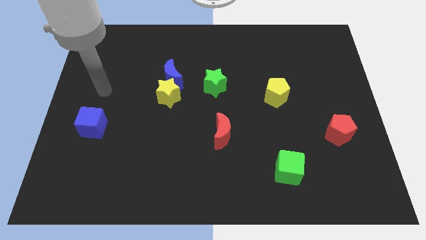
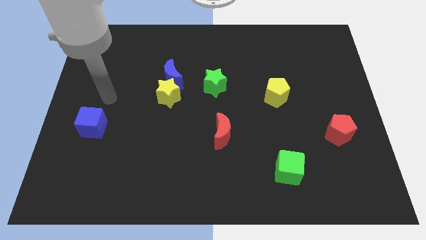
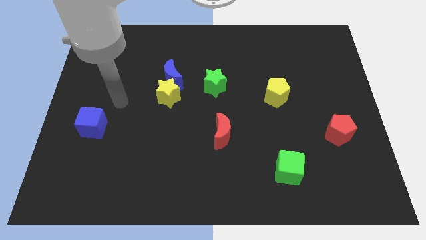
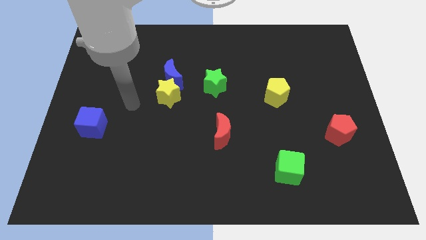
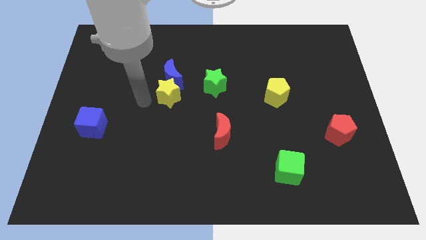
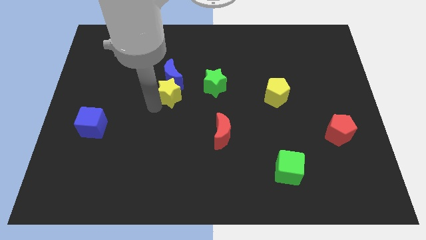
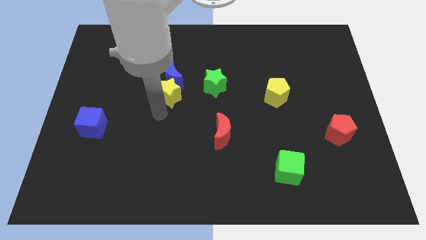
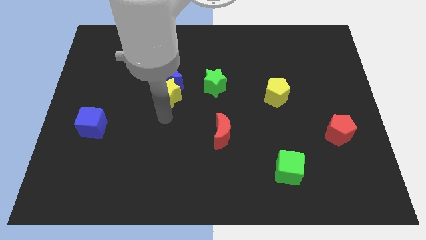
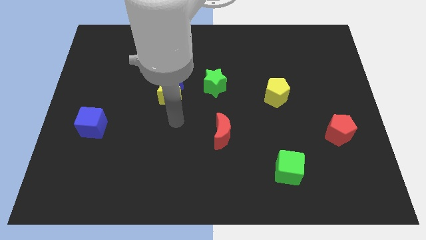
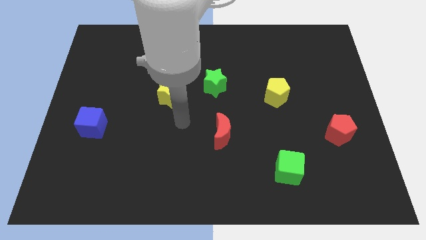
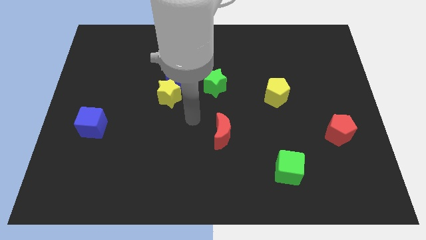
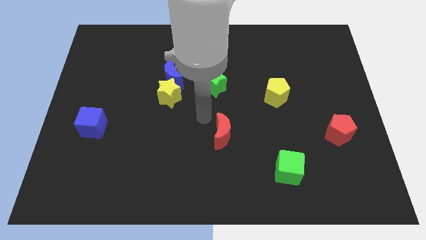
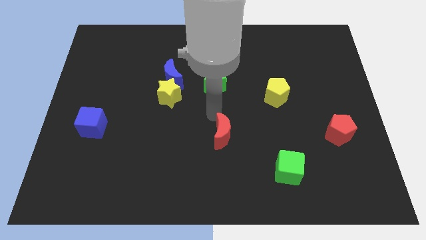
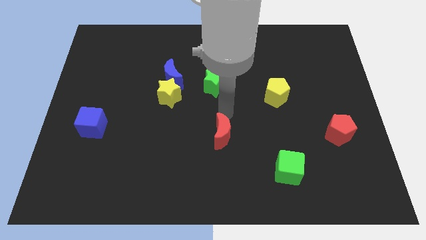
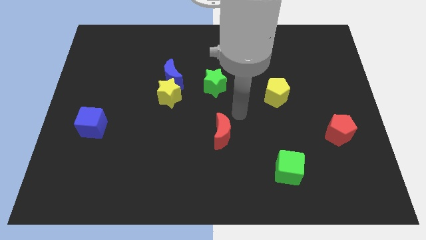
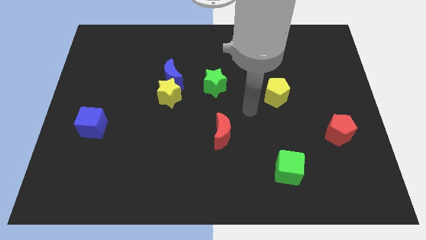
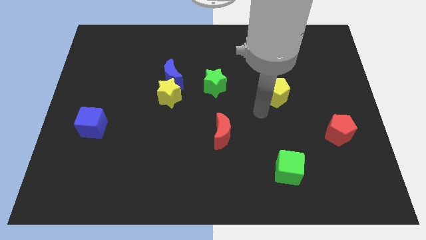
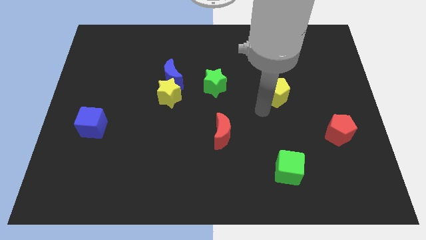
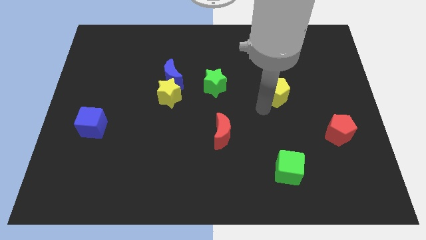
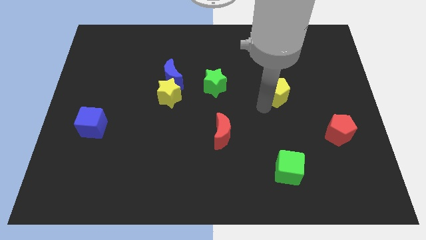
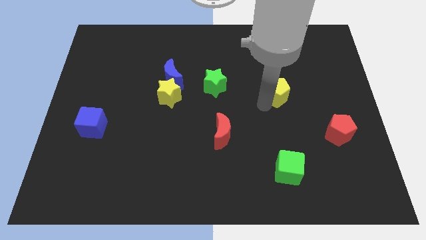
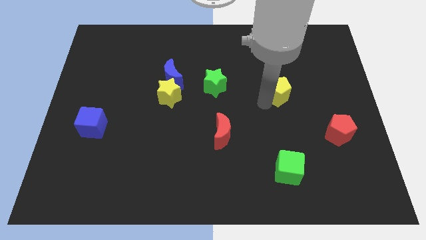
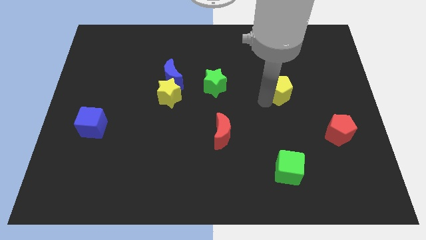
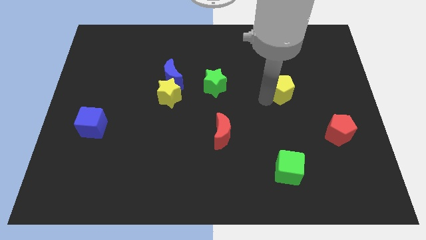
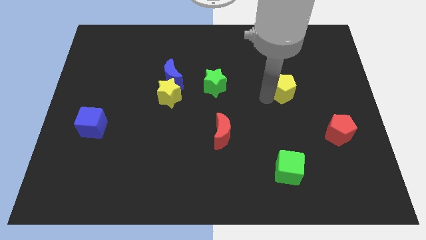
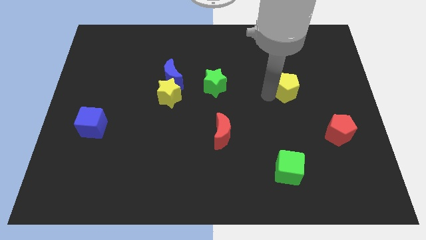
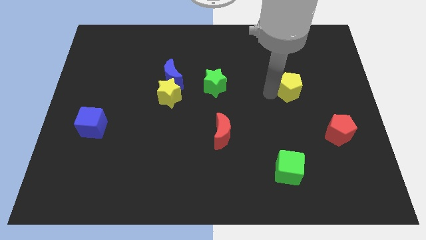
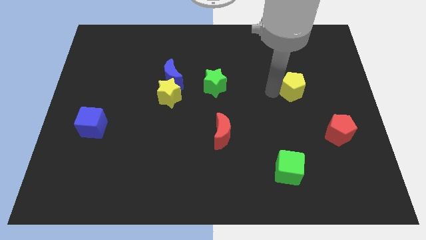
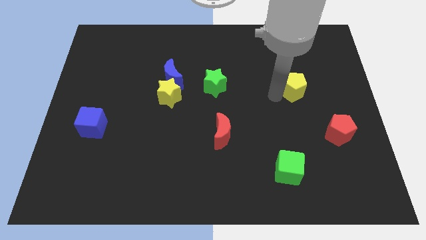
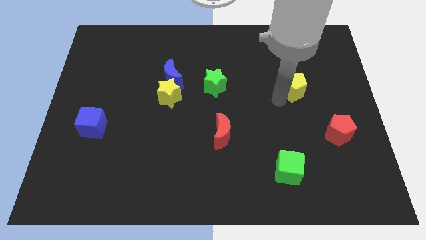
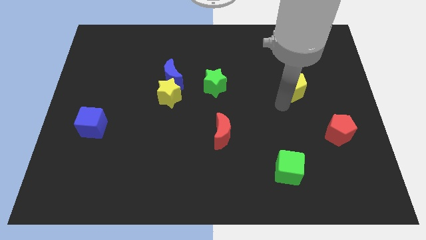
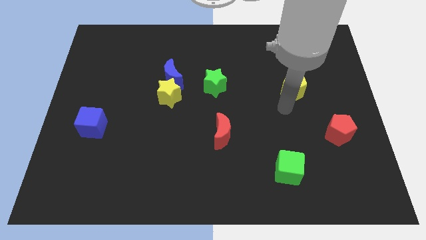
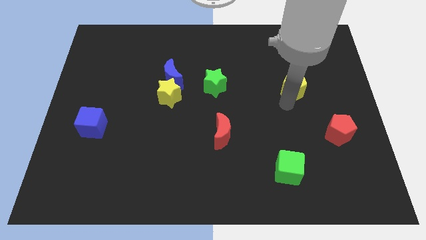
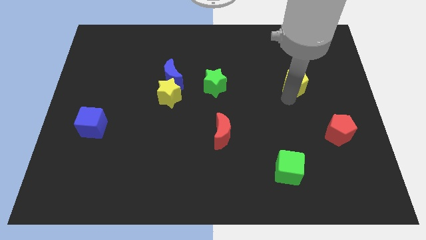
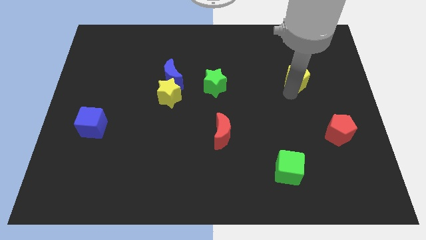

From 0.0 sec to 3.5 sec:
slide the yellow pentagon upwards and to the right diagonally somewhat

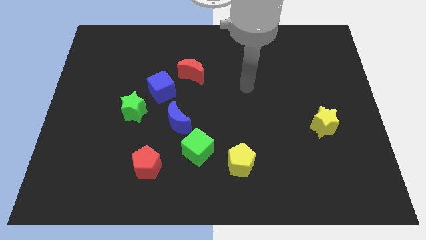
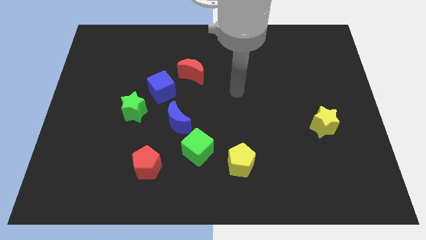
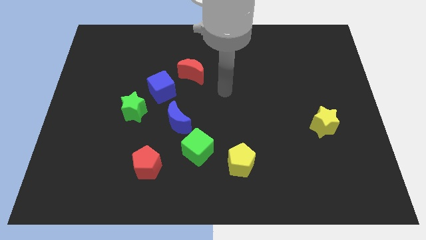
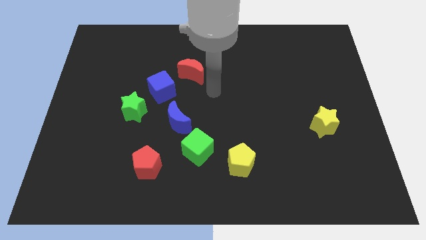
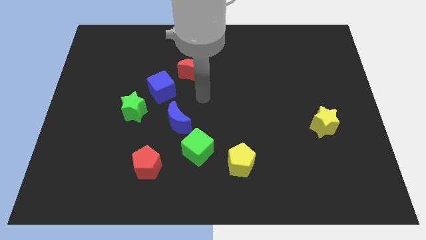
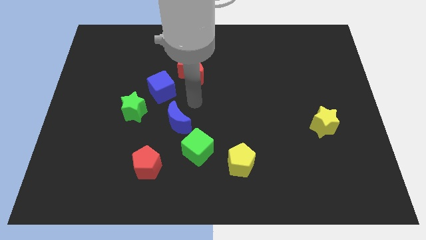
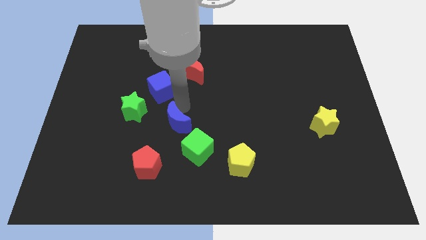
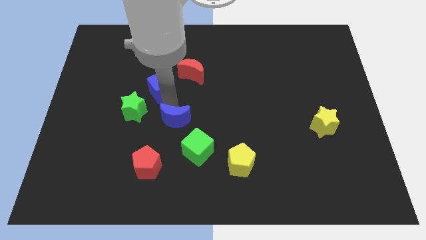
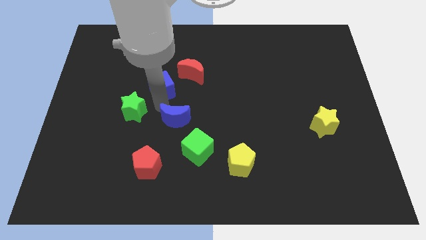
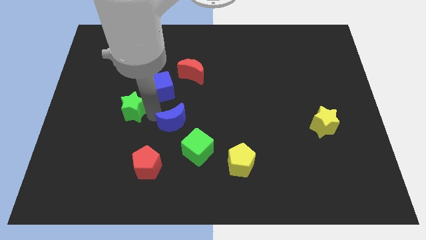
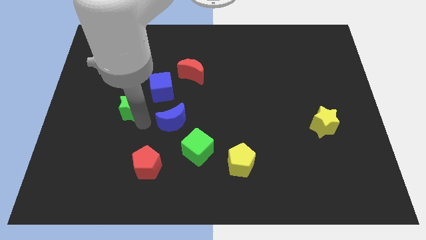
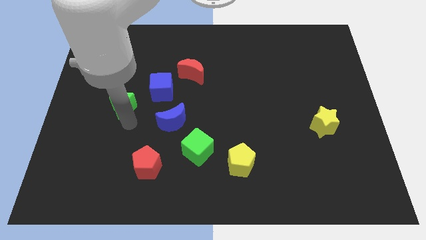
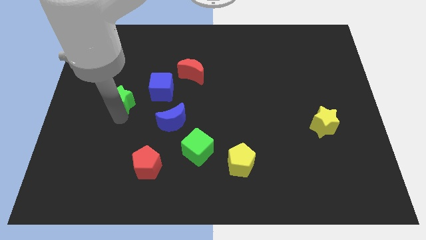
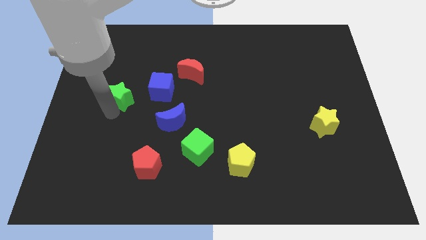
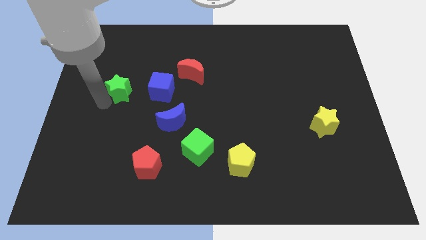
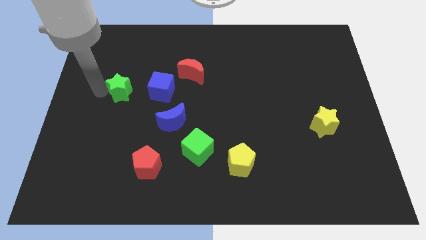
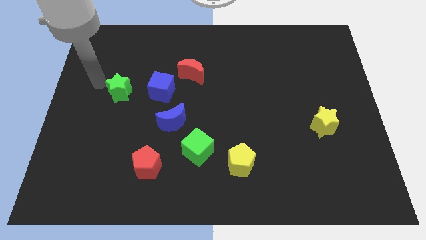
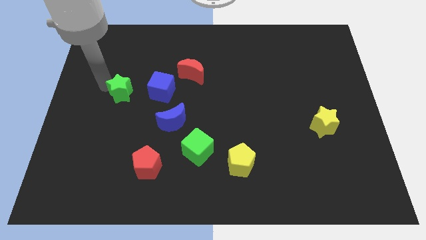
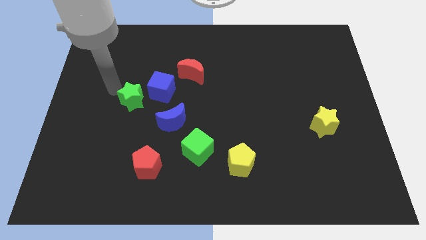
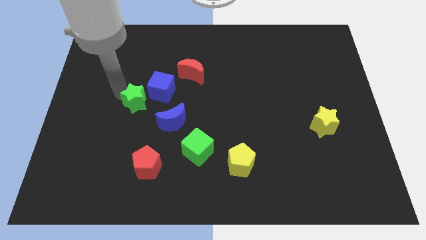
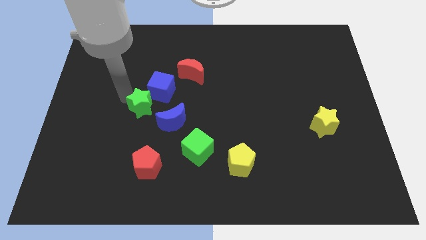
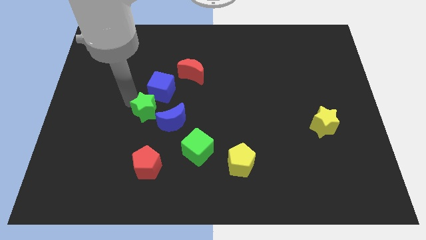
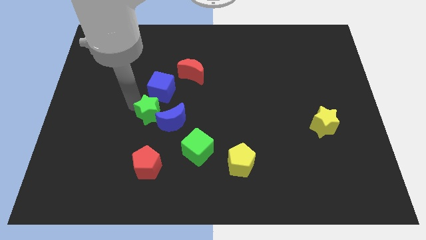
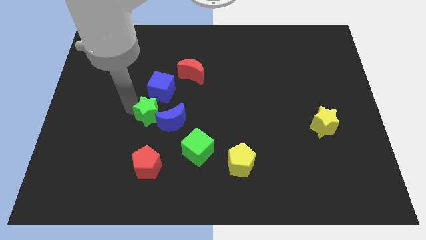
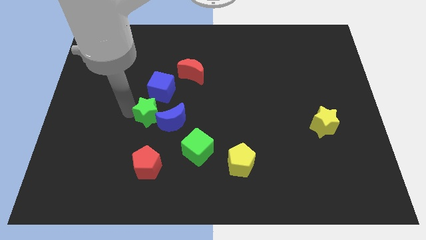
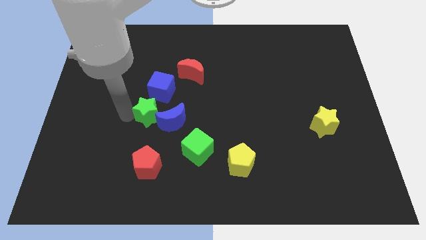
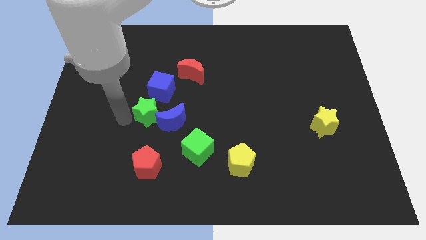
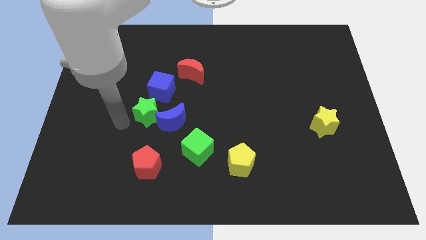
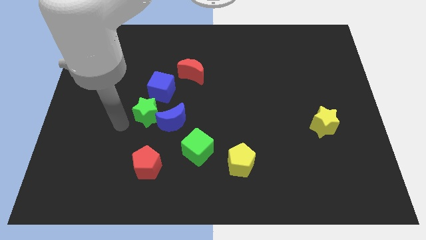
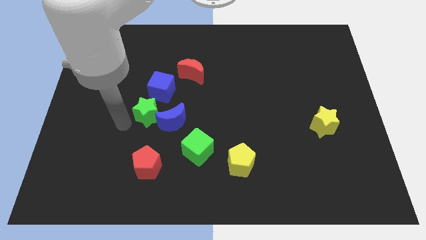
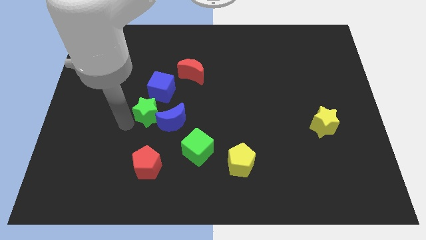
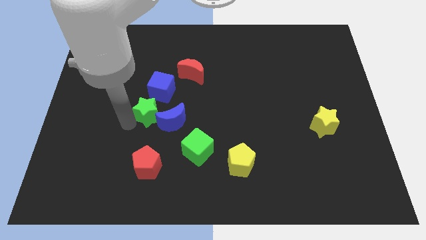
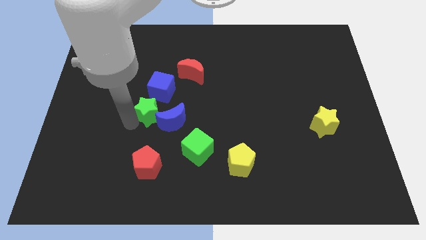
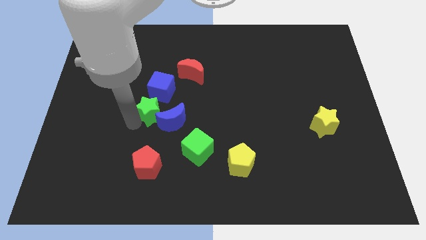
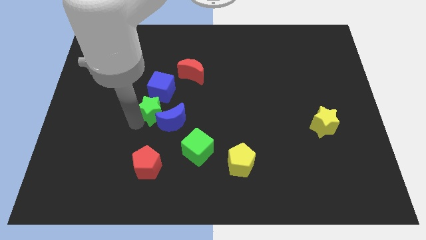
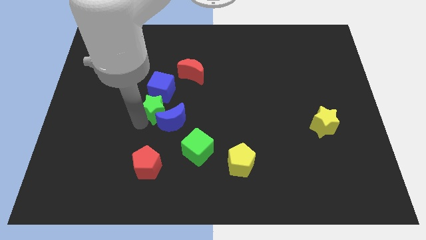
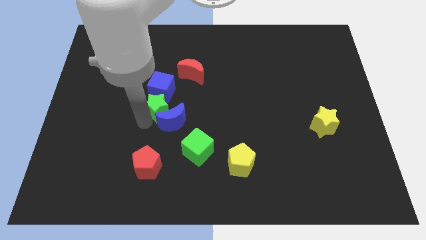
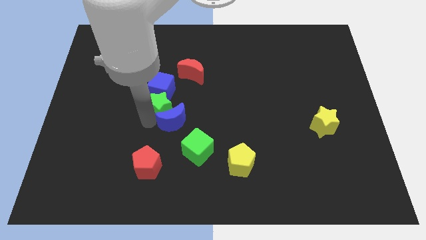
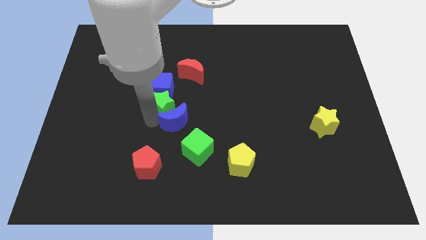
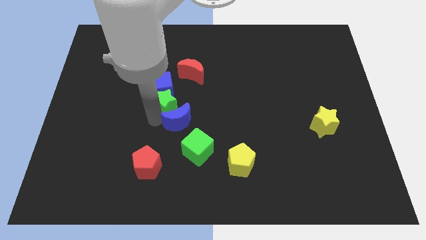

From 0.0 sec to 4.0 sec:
push the green star right somewhat

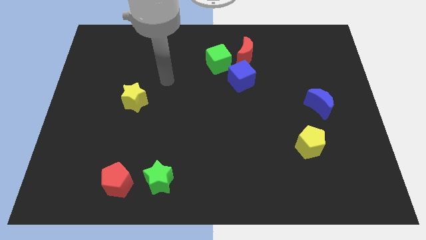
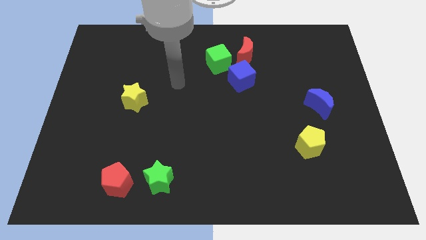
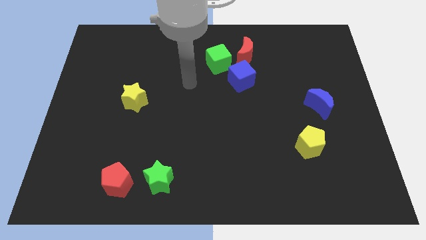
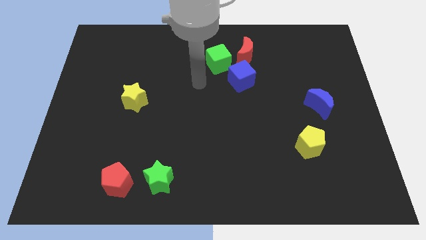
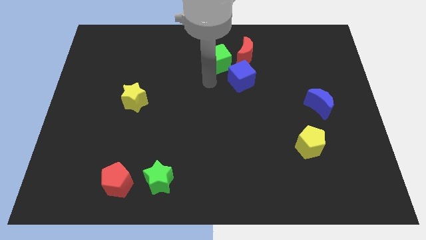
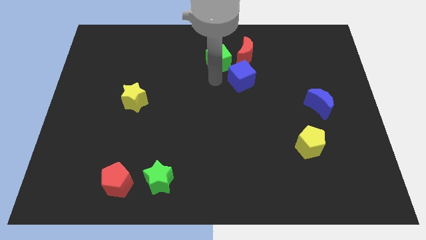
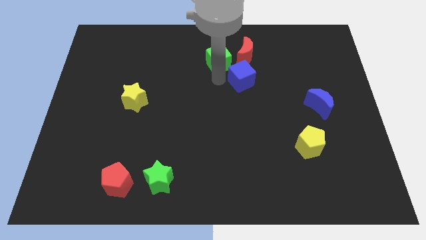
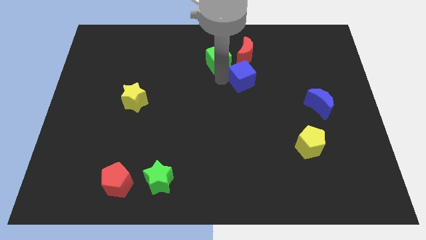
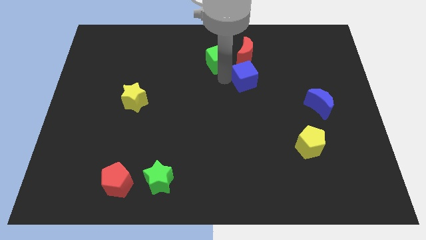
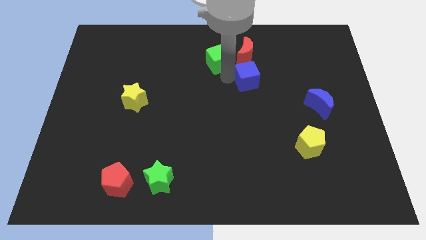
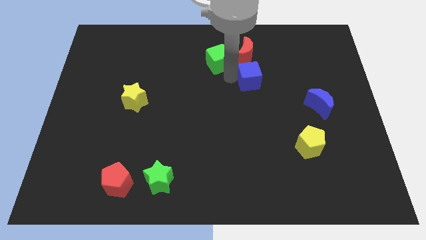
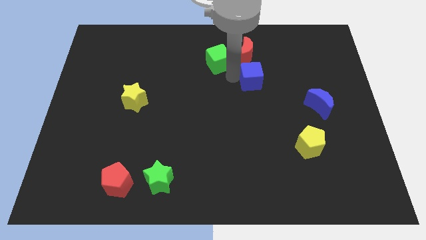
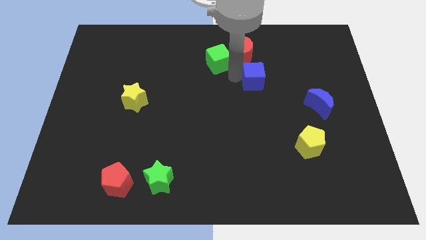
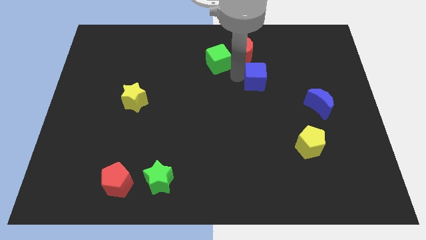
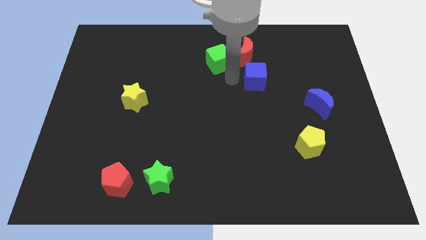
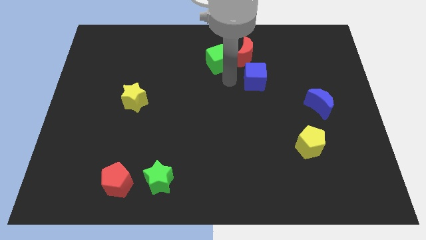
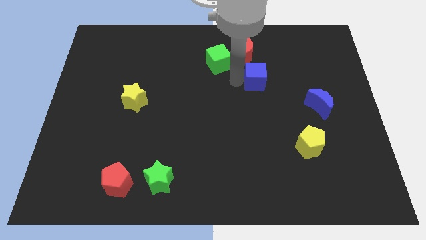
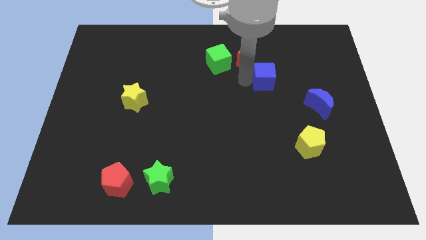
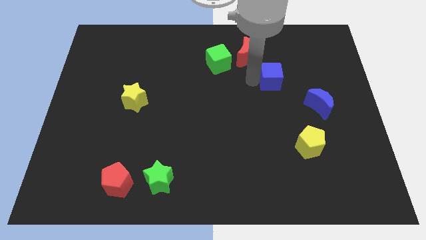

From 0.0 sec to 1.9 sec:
slightly move the blue cube to the right
